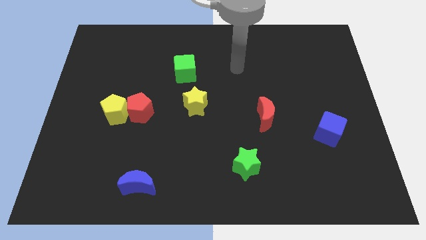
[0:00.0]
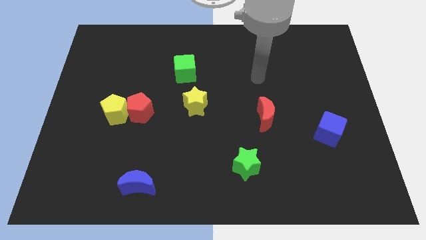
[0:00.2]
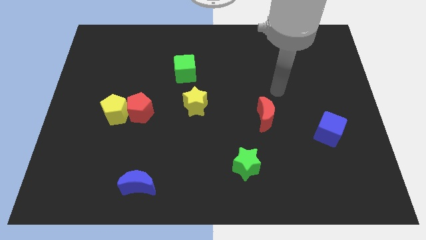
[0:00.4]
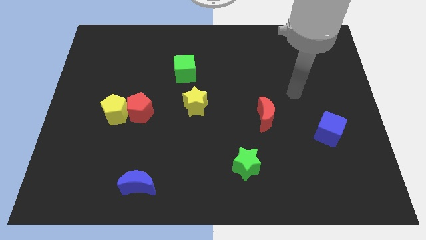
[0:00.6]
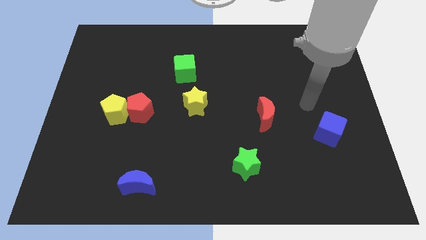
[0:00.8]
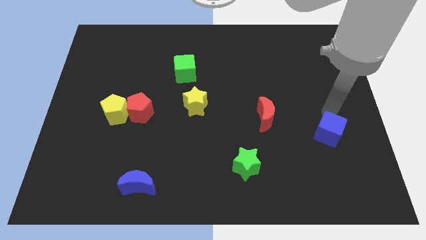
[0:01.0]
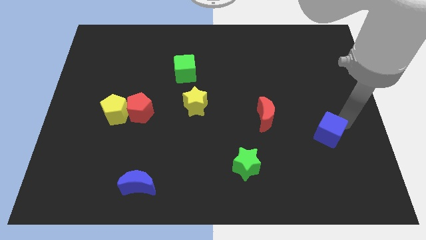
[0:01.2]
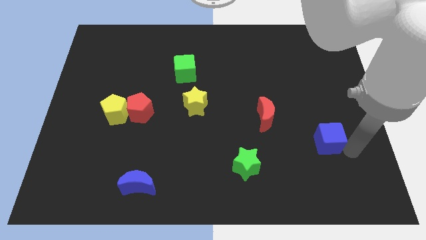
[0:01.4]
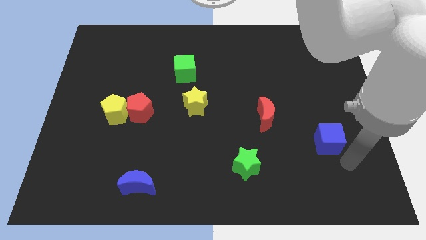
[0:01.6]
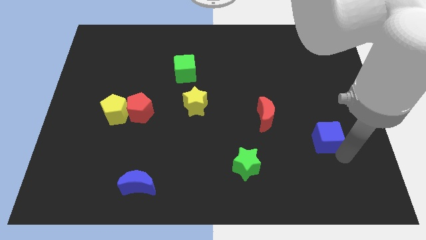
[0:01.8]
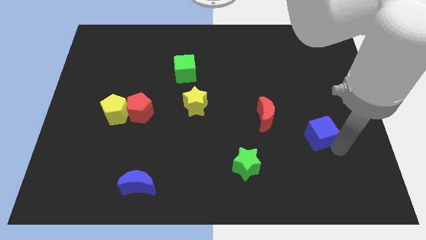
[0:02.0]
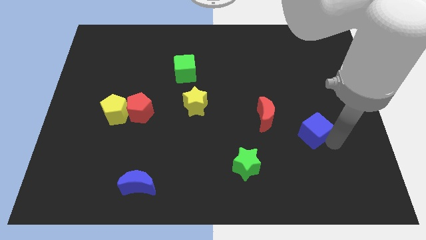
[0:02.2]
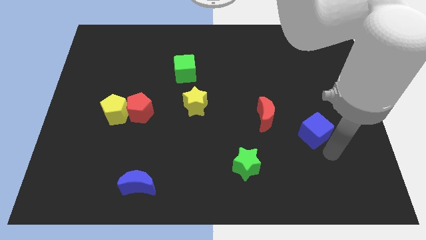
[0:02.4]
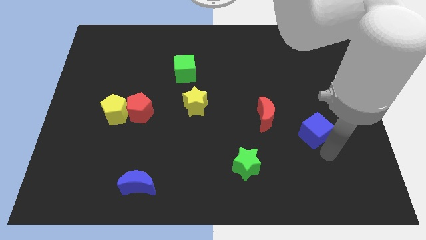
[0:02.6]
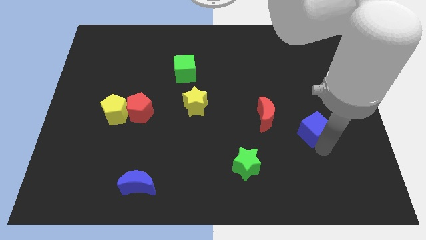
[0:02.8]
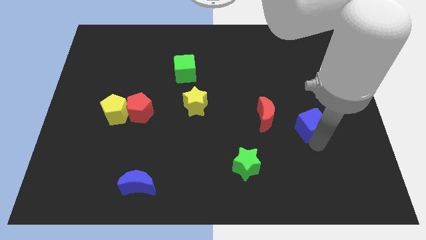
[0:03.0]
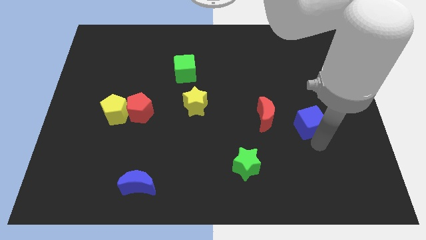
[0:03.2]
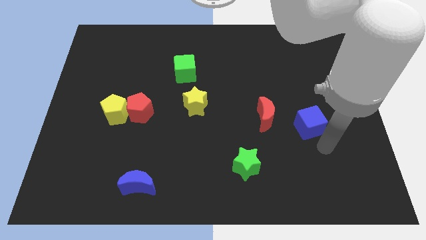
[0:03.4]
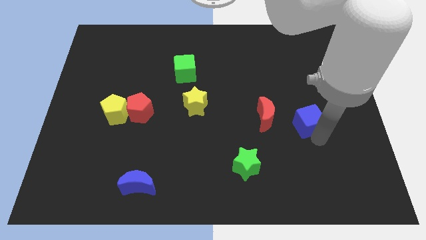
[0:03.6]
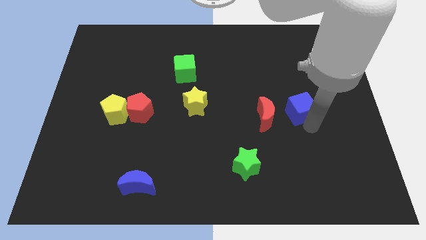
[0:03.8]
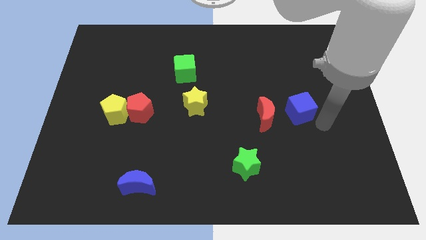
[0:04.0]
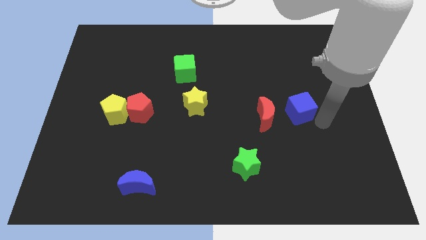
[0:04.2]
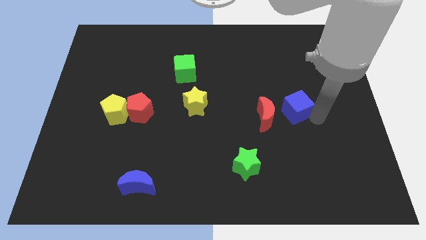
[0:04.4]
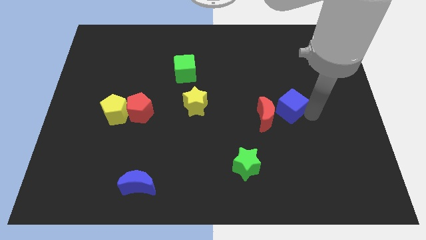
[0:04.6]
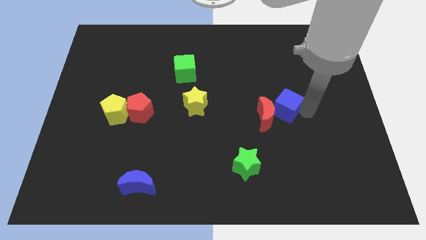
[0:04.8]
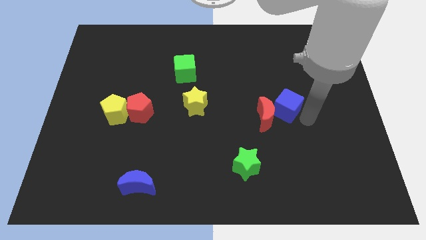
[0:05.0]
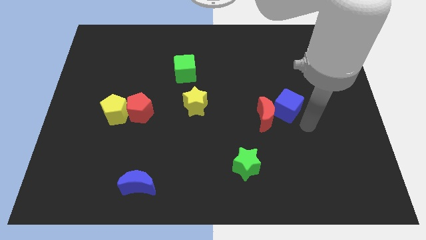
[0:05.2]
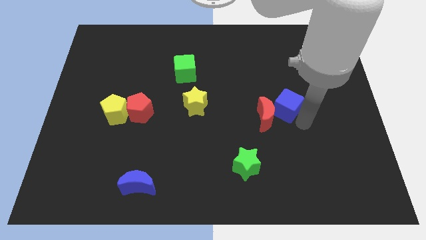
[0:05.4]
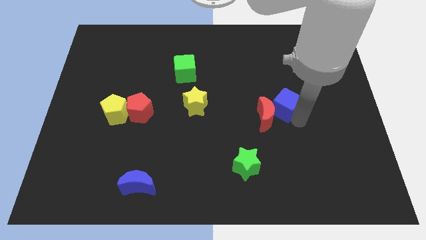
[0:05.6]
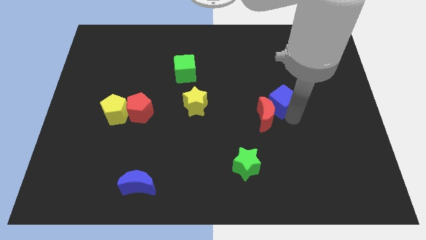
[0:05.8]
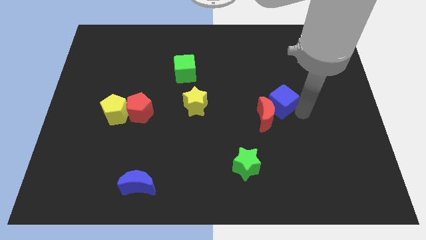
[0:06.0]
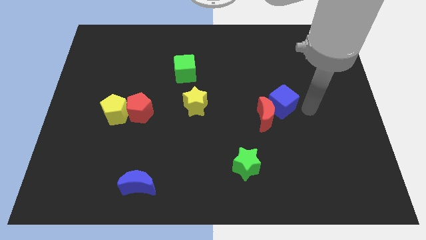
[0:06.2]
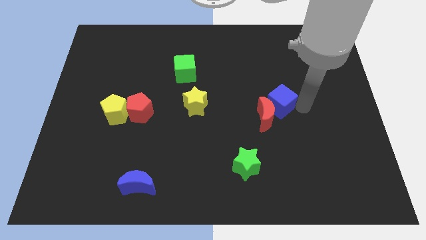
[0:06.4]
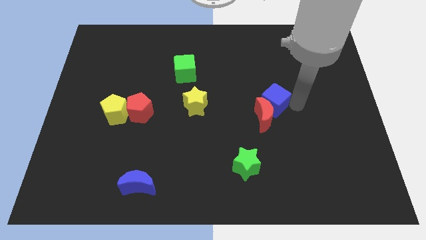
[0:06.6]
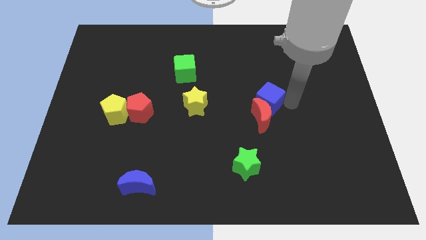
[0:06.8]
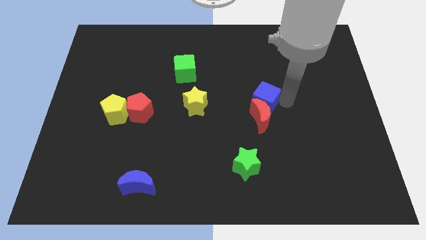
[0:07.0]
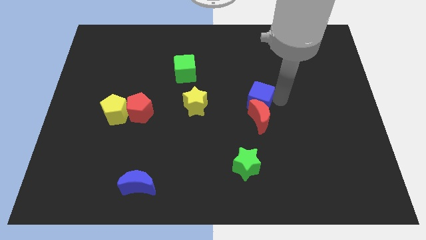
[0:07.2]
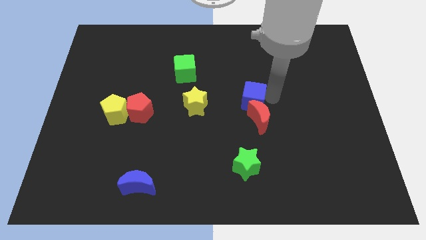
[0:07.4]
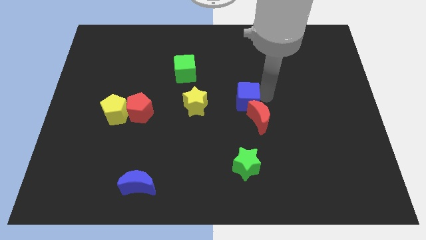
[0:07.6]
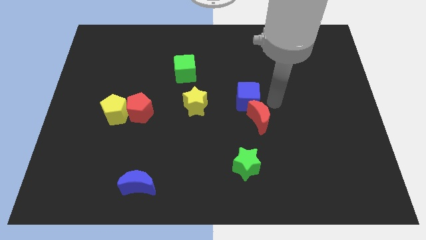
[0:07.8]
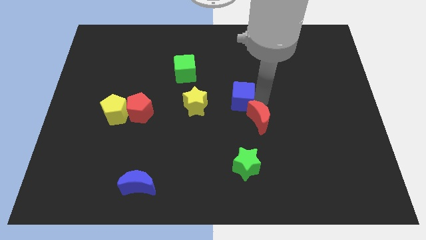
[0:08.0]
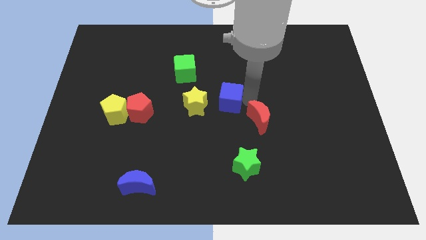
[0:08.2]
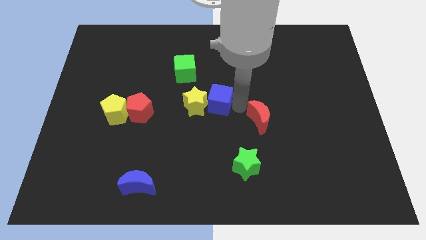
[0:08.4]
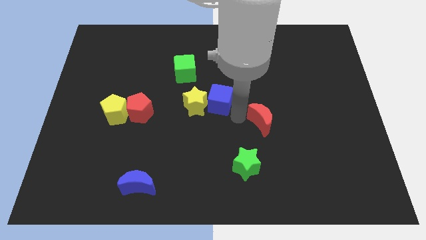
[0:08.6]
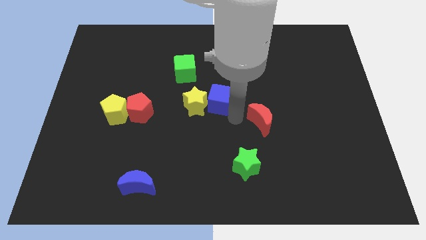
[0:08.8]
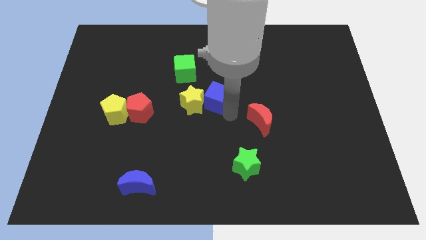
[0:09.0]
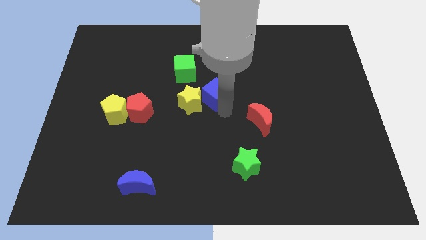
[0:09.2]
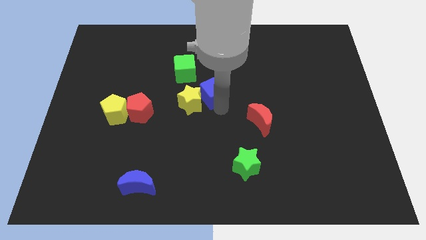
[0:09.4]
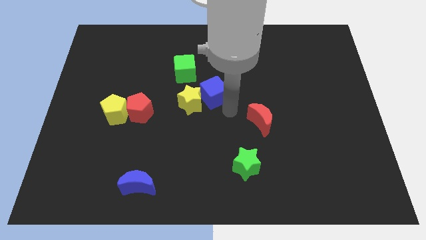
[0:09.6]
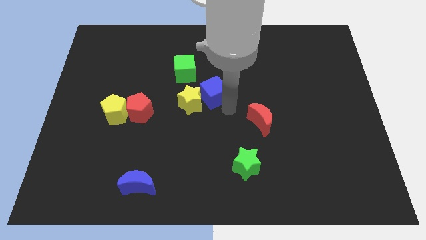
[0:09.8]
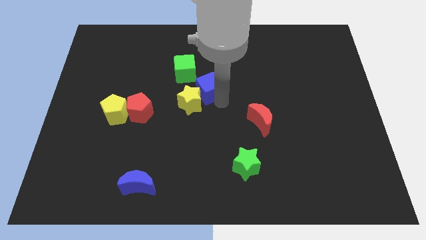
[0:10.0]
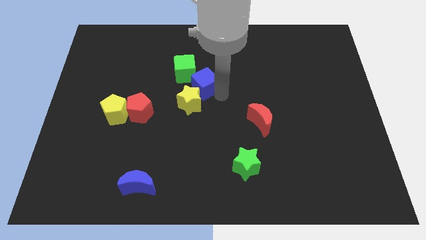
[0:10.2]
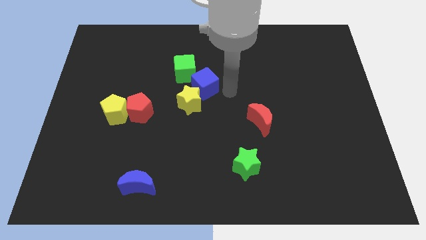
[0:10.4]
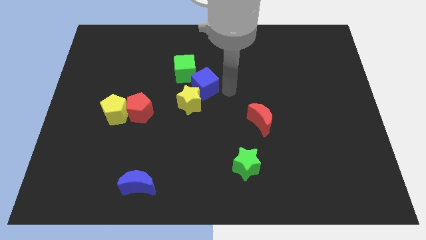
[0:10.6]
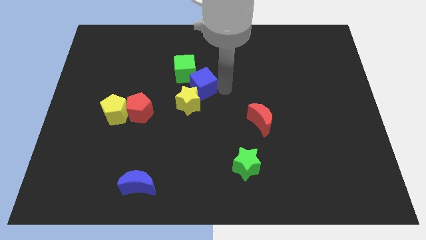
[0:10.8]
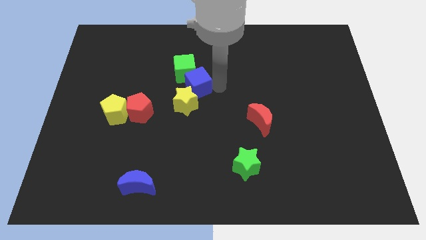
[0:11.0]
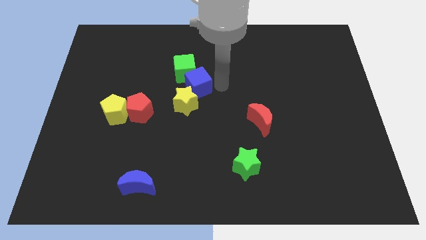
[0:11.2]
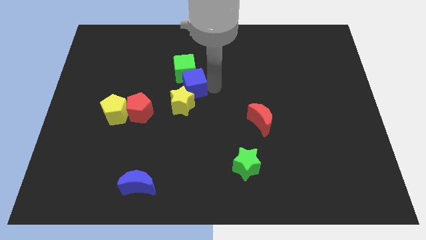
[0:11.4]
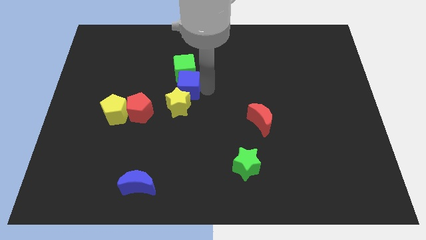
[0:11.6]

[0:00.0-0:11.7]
slide the blue cube diagonally down and to the left of the green cube

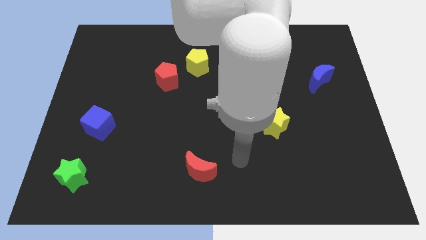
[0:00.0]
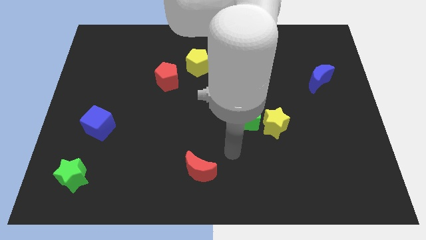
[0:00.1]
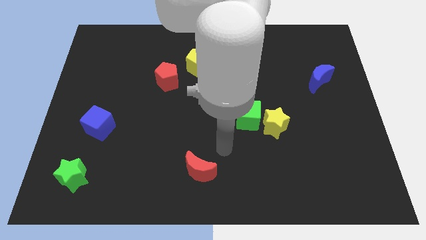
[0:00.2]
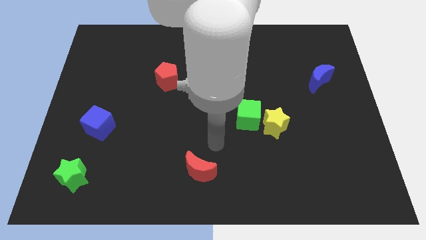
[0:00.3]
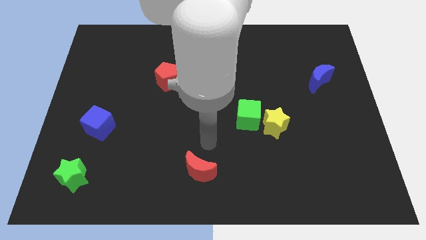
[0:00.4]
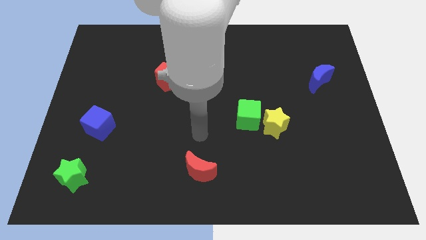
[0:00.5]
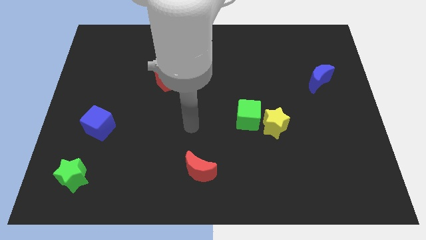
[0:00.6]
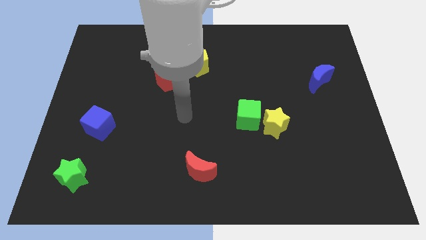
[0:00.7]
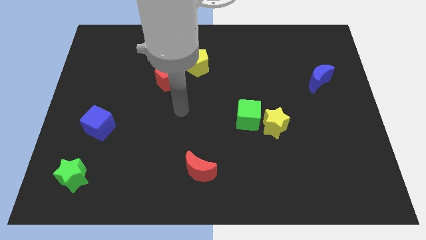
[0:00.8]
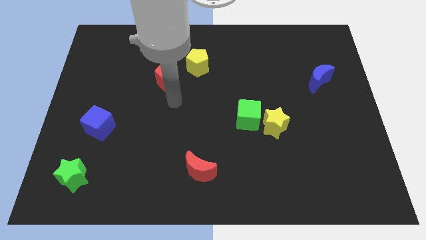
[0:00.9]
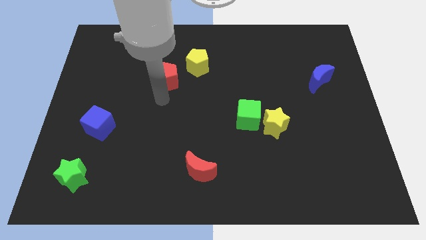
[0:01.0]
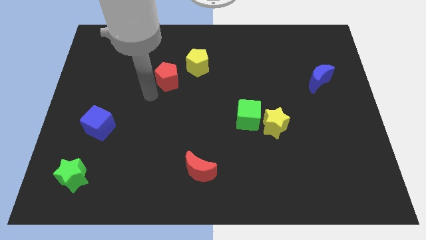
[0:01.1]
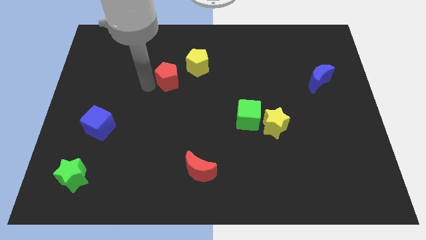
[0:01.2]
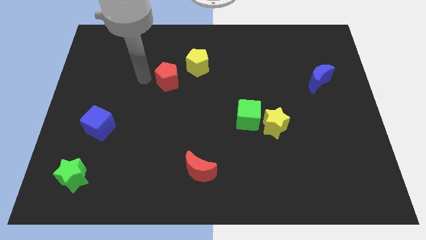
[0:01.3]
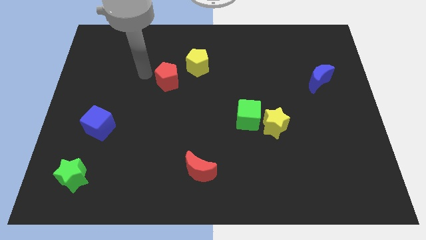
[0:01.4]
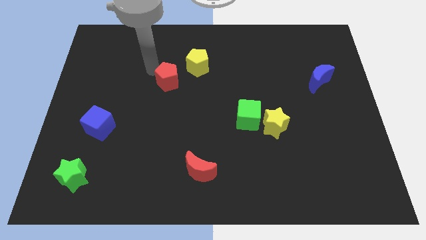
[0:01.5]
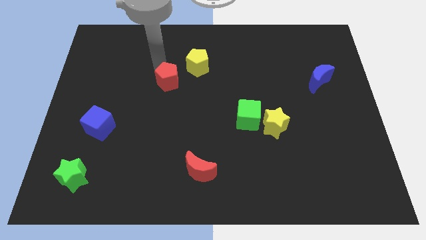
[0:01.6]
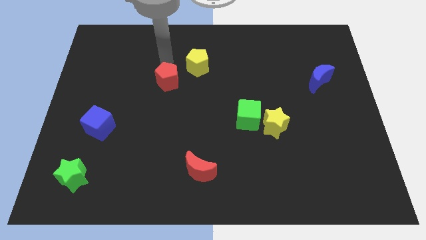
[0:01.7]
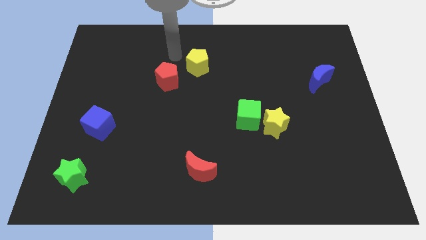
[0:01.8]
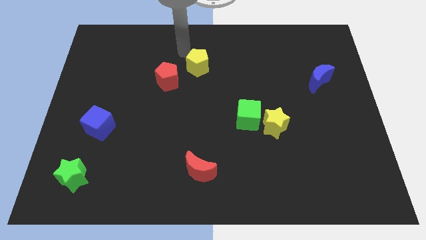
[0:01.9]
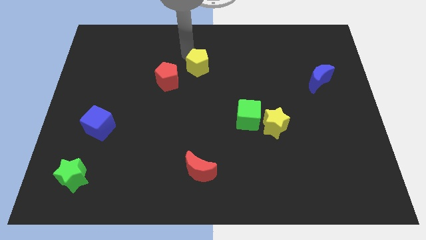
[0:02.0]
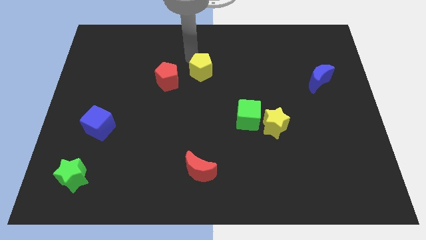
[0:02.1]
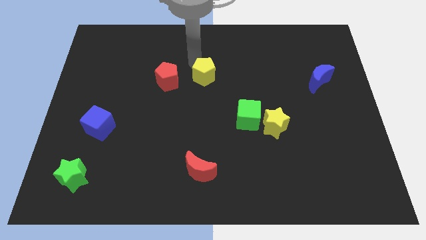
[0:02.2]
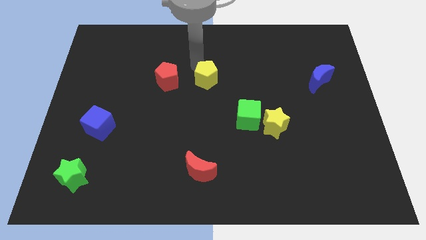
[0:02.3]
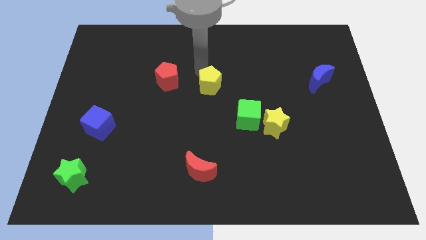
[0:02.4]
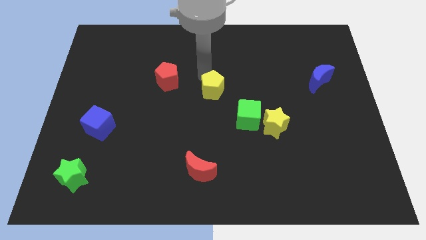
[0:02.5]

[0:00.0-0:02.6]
put the yellow pentagon to the top left side of the green cube
